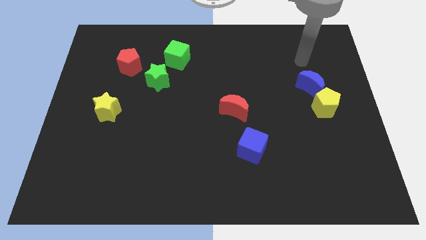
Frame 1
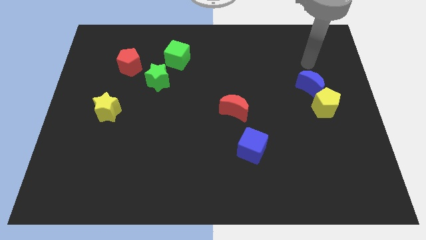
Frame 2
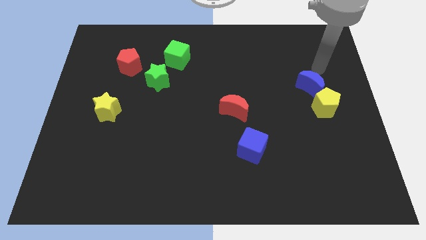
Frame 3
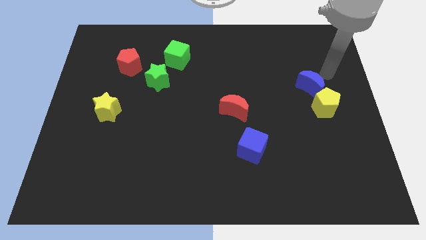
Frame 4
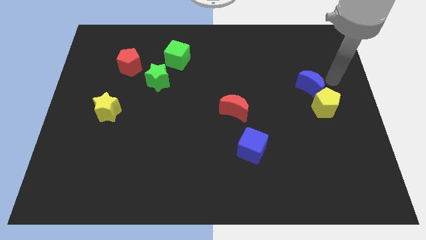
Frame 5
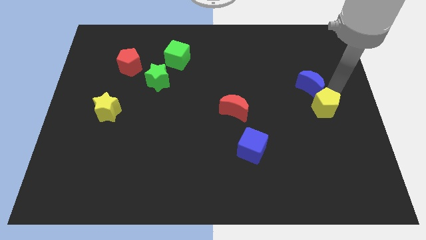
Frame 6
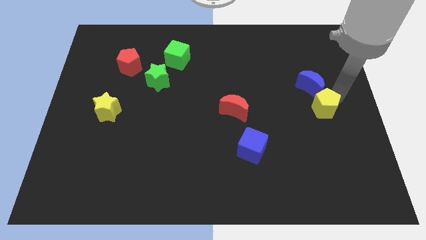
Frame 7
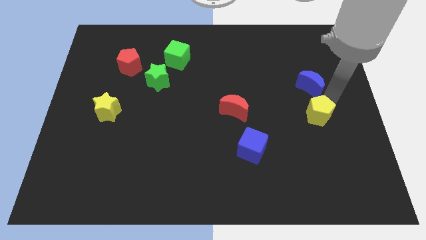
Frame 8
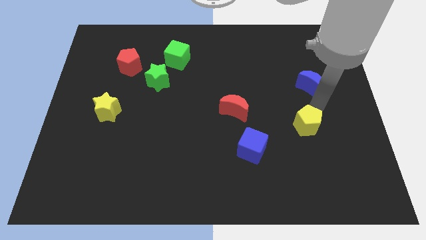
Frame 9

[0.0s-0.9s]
move the blue moon away from the yellow pentagon

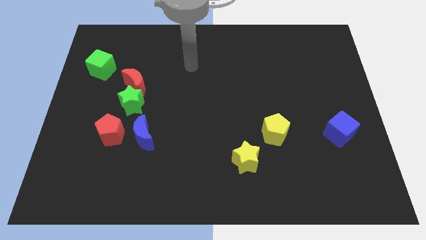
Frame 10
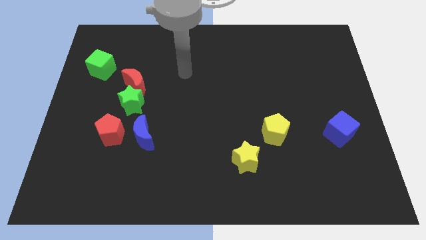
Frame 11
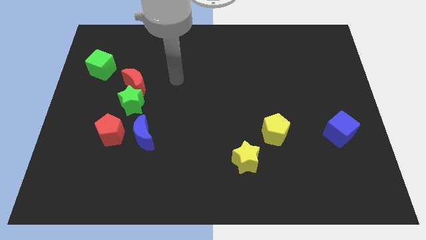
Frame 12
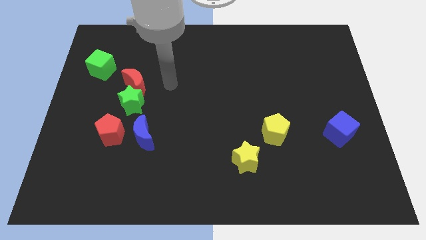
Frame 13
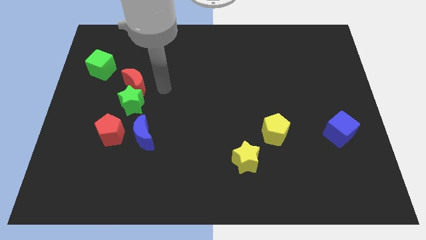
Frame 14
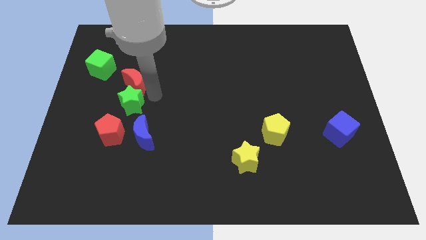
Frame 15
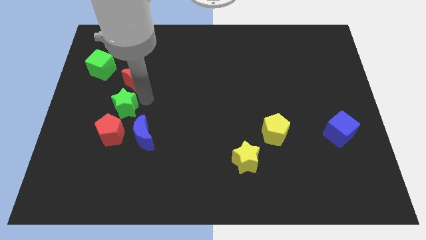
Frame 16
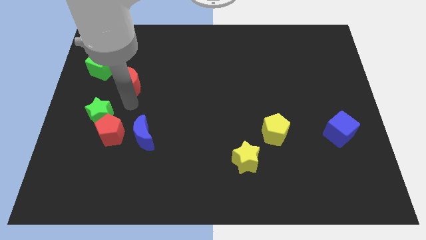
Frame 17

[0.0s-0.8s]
pull the red moon apart from the green star

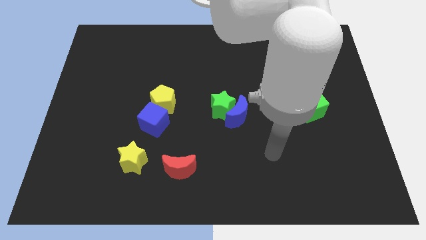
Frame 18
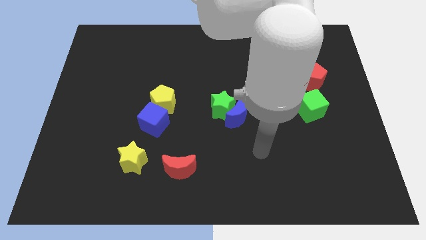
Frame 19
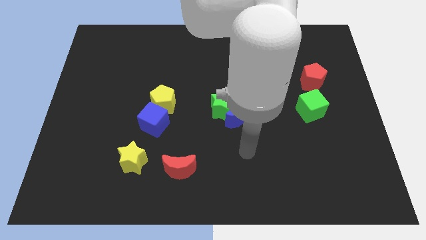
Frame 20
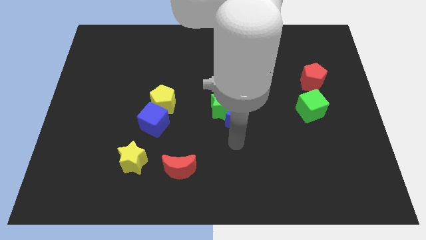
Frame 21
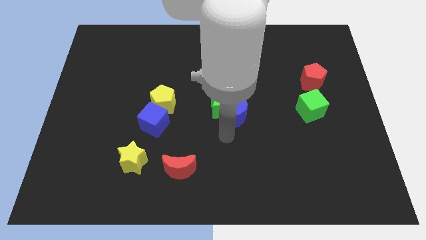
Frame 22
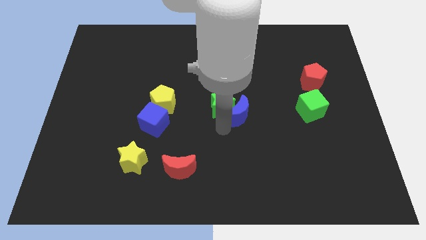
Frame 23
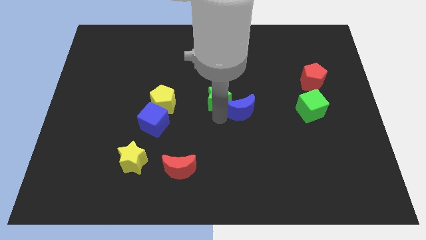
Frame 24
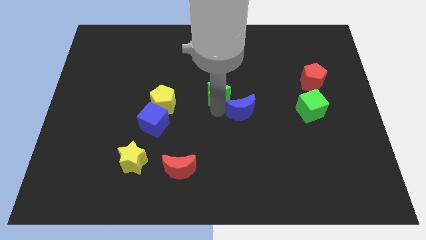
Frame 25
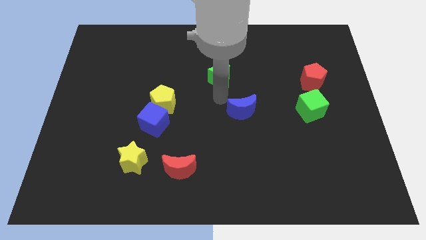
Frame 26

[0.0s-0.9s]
separate the blue moon from the green star

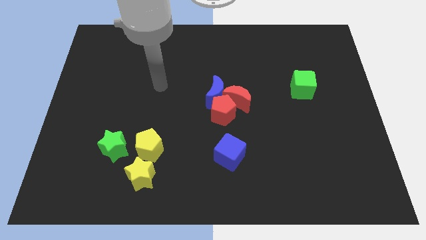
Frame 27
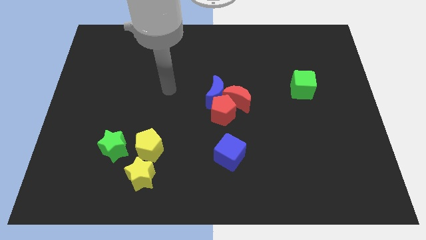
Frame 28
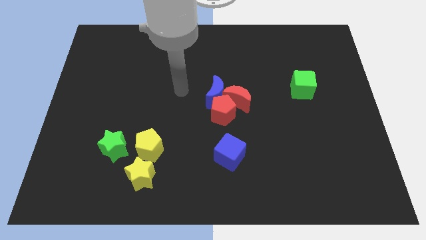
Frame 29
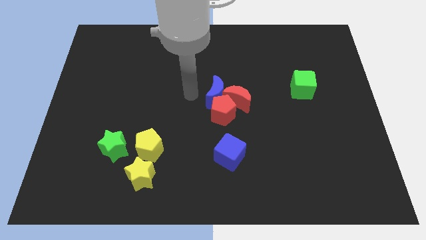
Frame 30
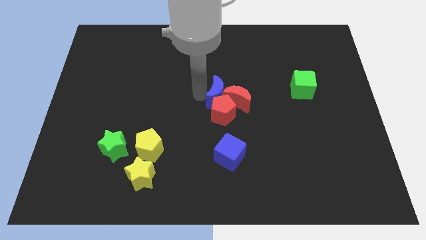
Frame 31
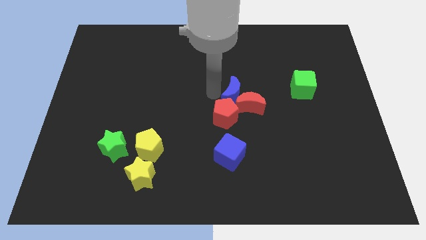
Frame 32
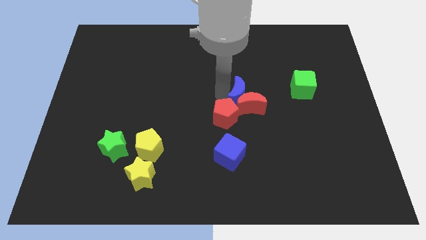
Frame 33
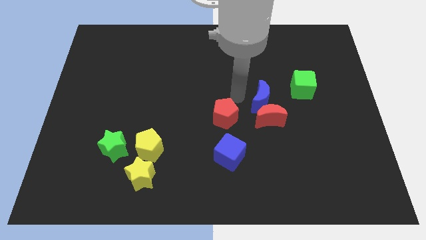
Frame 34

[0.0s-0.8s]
separate the red pentagon from the red moon and blue moon

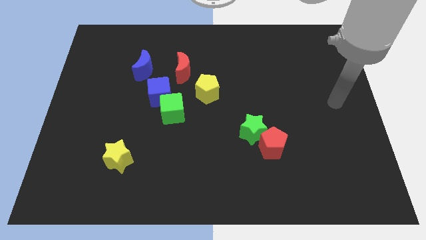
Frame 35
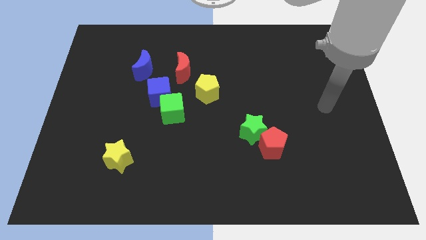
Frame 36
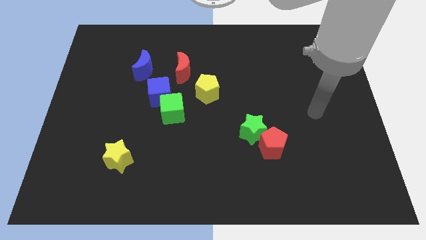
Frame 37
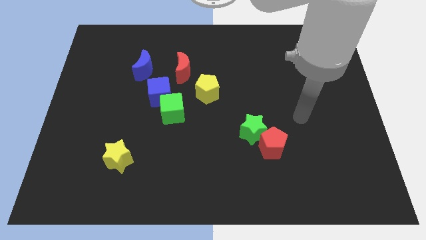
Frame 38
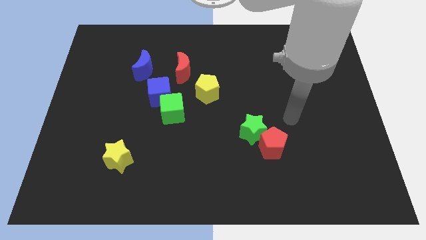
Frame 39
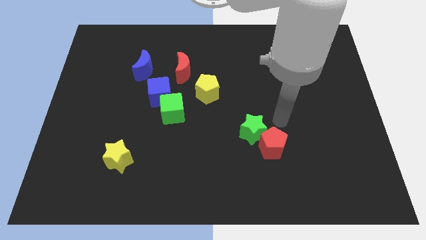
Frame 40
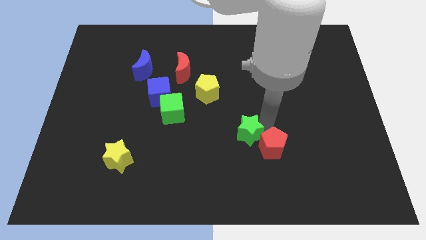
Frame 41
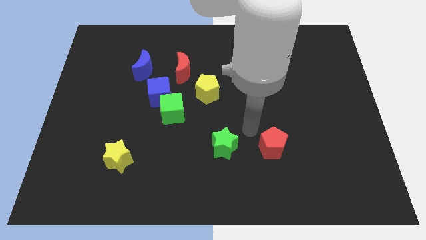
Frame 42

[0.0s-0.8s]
separate the red pentagon from the green star

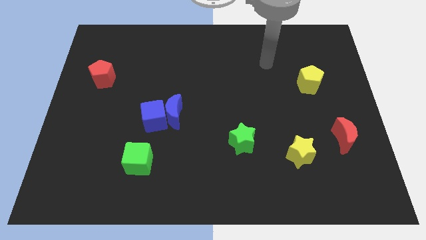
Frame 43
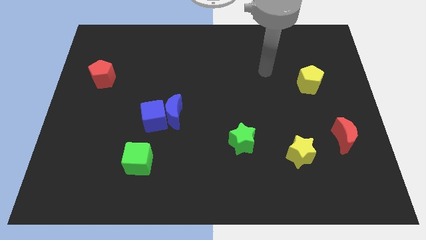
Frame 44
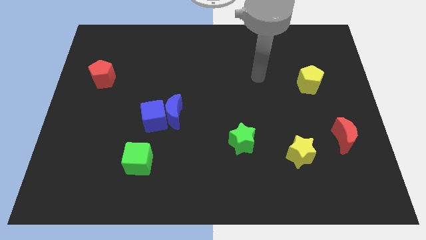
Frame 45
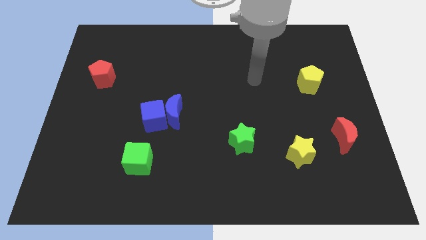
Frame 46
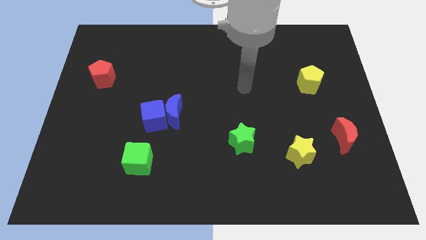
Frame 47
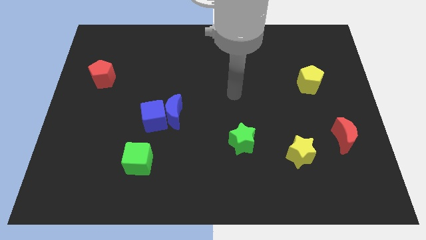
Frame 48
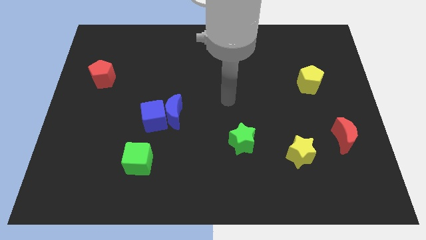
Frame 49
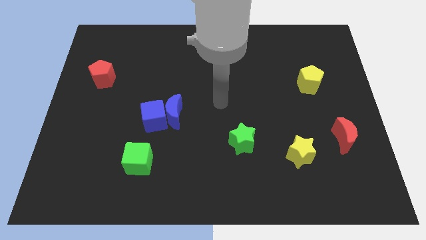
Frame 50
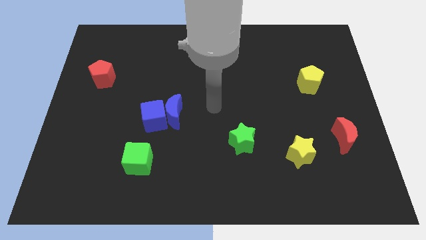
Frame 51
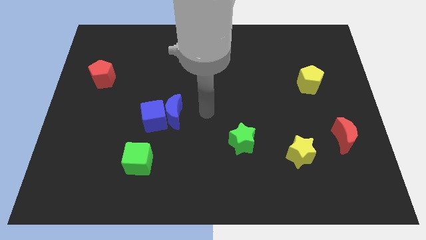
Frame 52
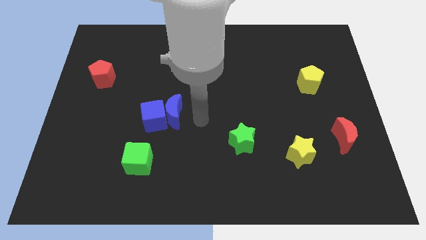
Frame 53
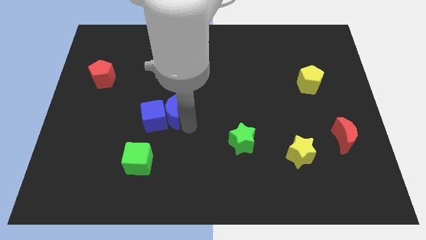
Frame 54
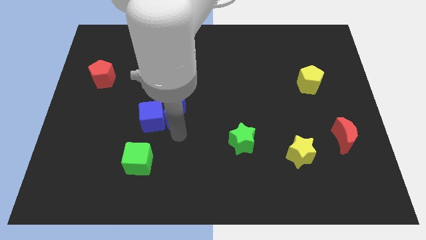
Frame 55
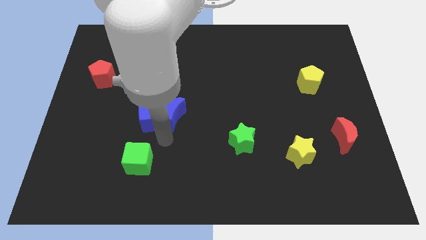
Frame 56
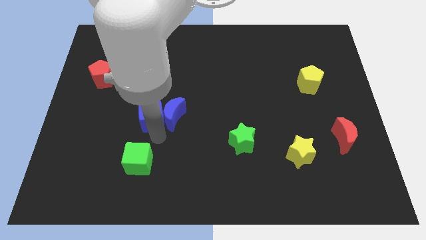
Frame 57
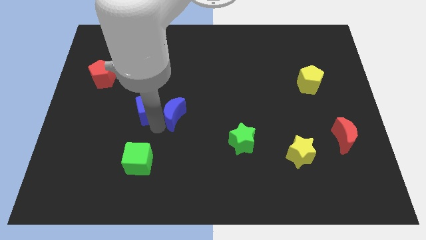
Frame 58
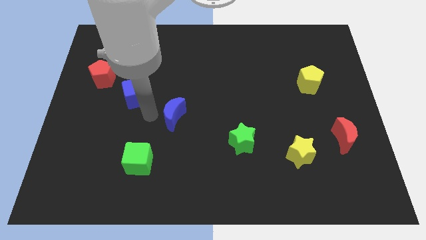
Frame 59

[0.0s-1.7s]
pull the blue moon apart from the blue cube
